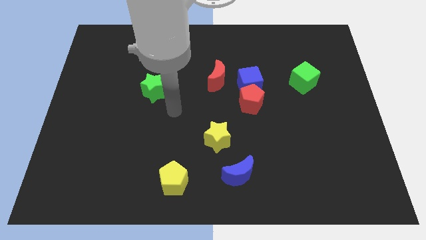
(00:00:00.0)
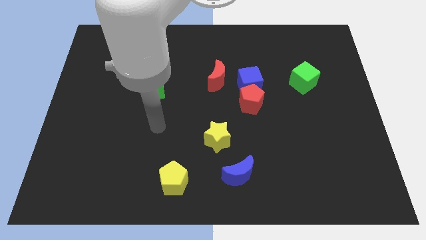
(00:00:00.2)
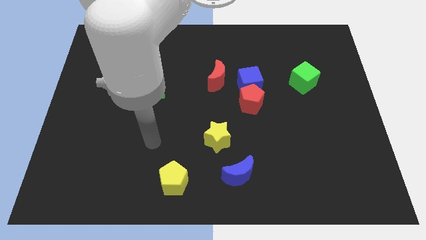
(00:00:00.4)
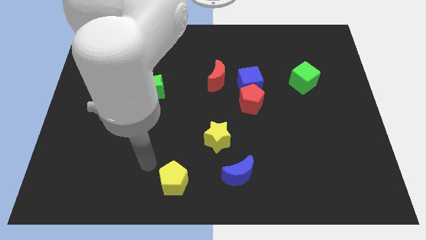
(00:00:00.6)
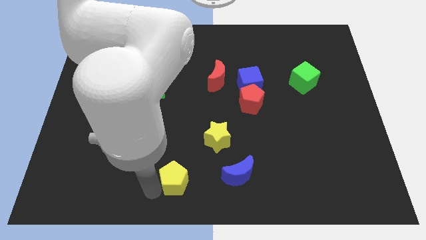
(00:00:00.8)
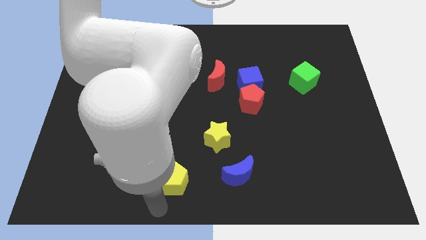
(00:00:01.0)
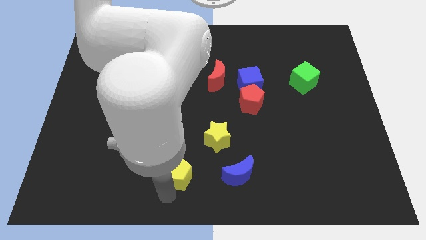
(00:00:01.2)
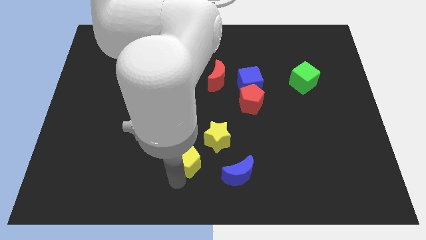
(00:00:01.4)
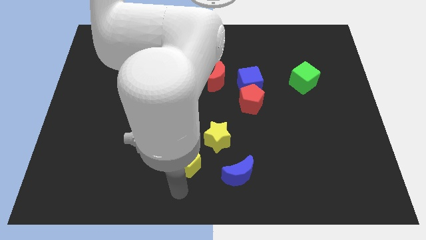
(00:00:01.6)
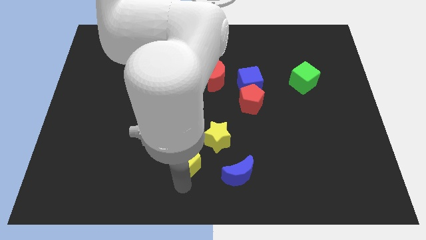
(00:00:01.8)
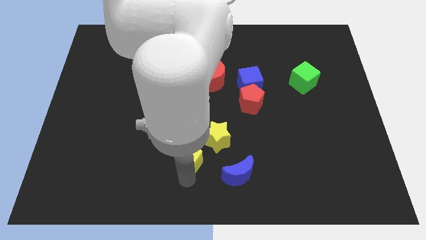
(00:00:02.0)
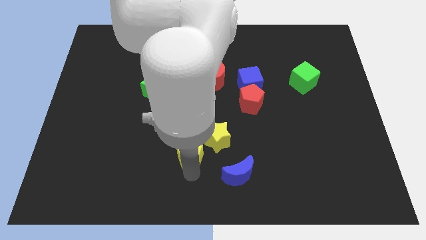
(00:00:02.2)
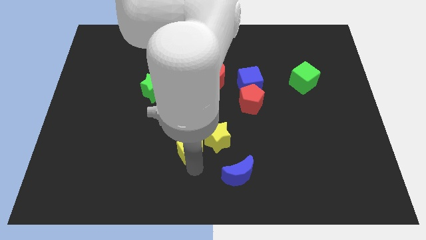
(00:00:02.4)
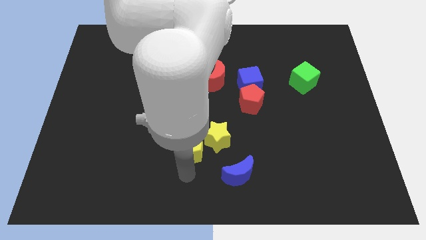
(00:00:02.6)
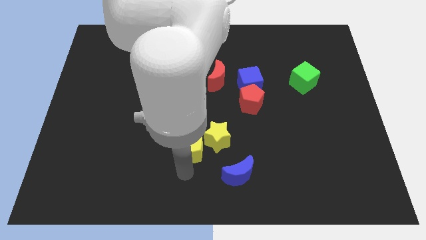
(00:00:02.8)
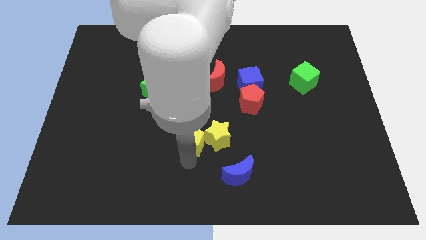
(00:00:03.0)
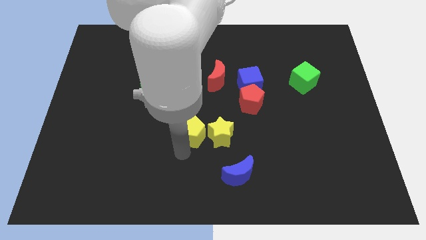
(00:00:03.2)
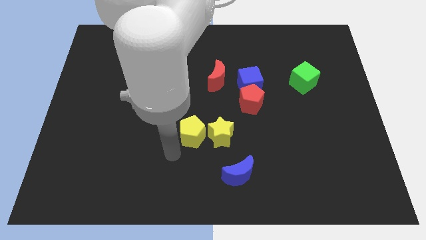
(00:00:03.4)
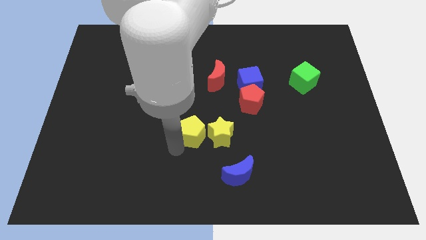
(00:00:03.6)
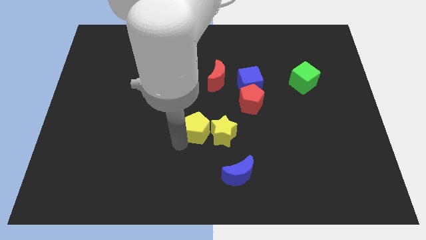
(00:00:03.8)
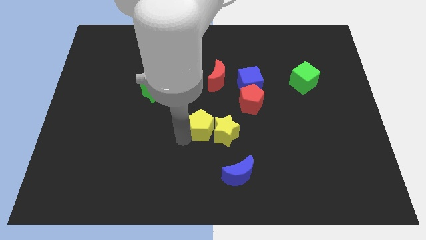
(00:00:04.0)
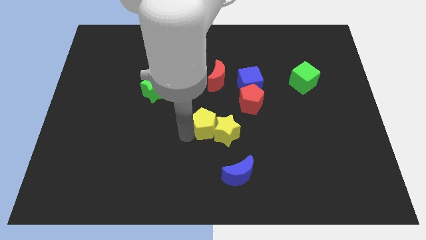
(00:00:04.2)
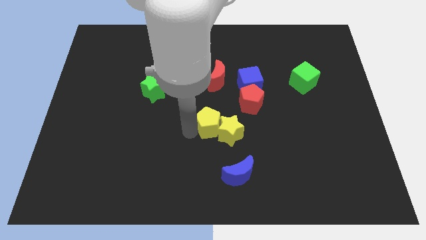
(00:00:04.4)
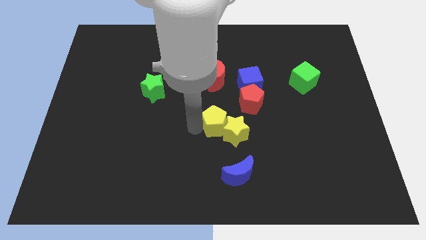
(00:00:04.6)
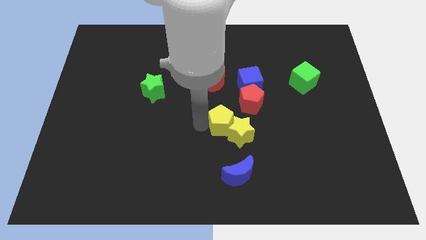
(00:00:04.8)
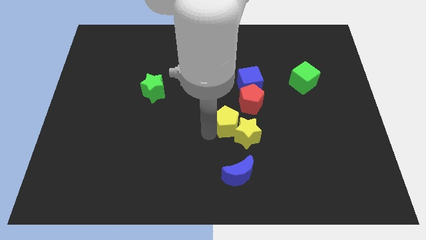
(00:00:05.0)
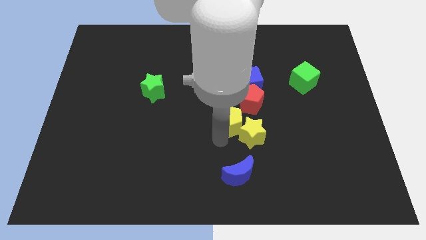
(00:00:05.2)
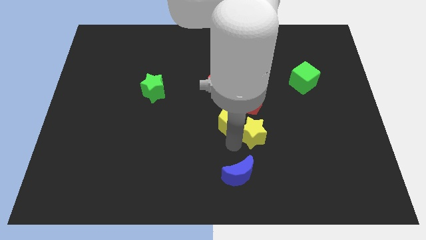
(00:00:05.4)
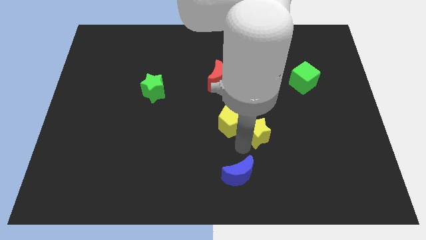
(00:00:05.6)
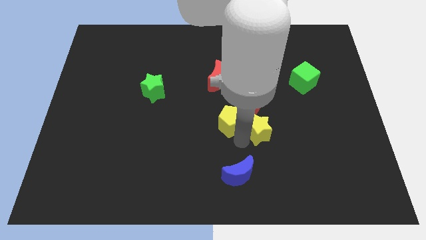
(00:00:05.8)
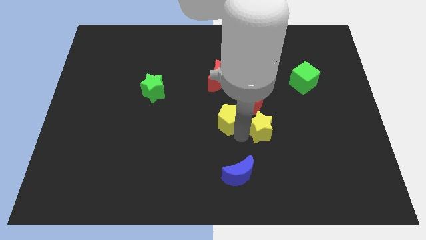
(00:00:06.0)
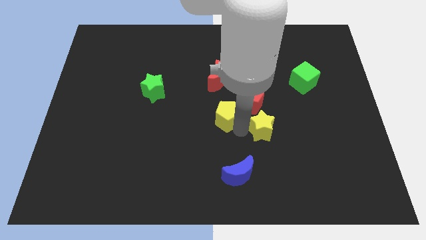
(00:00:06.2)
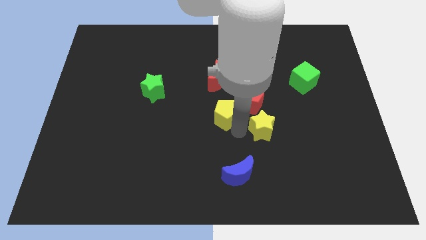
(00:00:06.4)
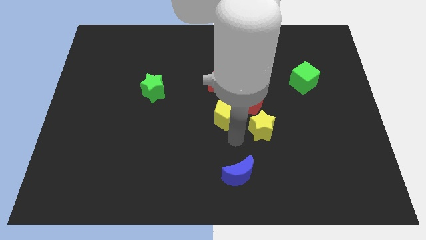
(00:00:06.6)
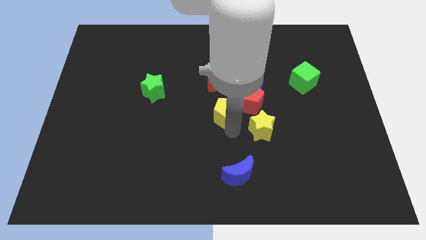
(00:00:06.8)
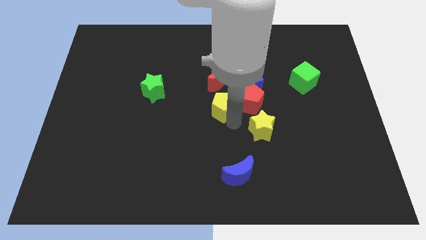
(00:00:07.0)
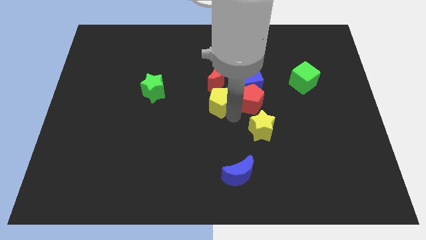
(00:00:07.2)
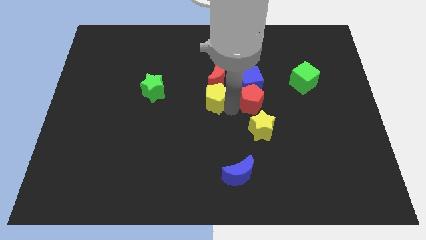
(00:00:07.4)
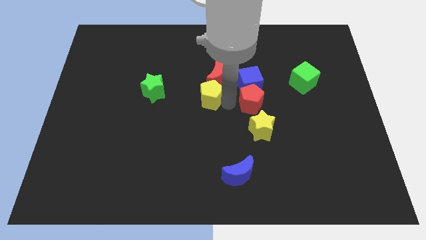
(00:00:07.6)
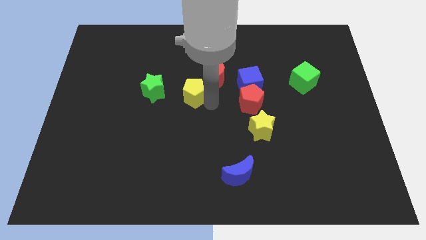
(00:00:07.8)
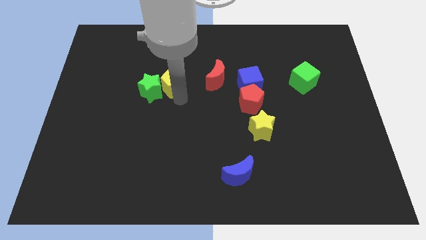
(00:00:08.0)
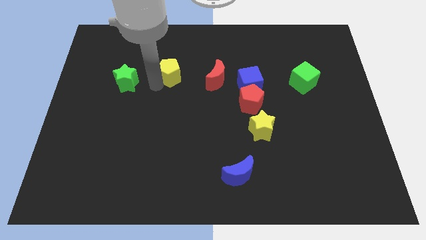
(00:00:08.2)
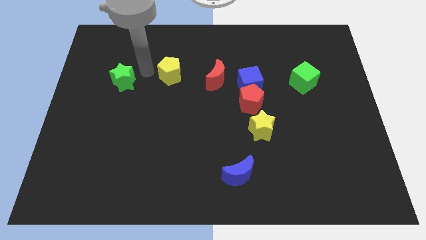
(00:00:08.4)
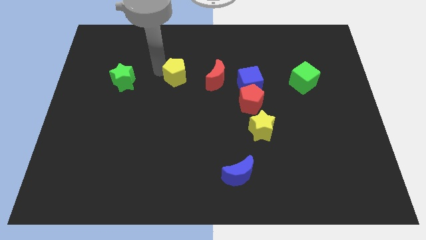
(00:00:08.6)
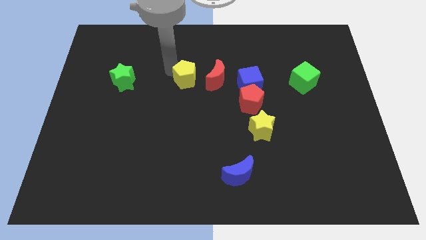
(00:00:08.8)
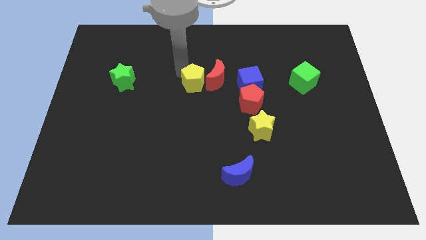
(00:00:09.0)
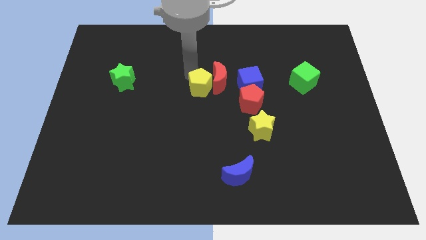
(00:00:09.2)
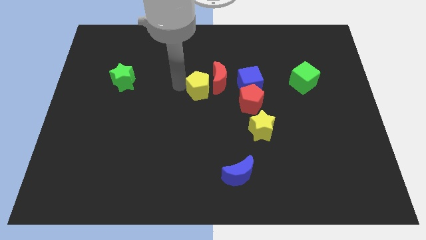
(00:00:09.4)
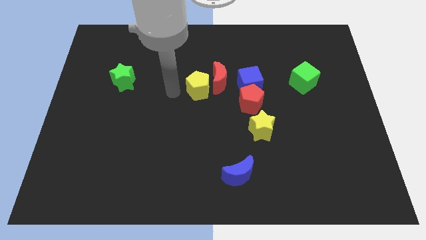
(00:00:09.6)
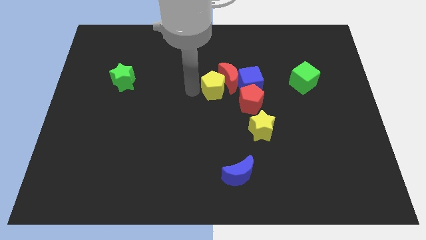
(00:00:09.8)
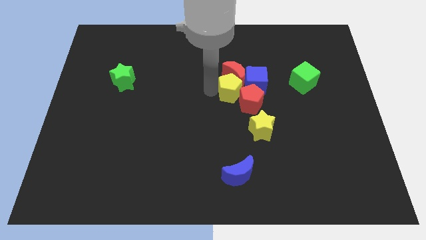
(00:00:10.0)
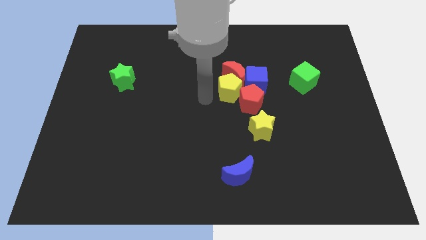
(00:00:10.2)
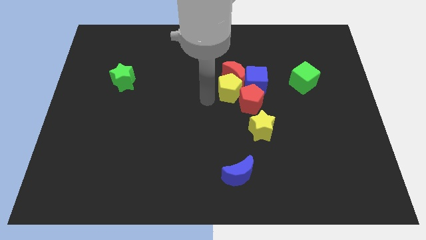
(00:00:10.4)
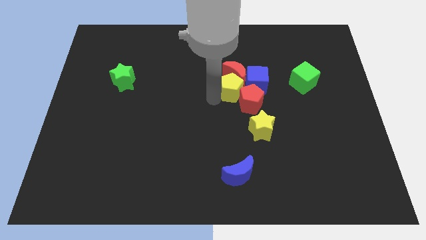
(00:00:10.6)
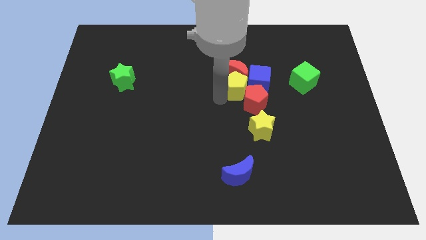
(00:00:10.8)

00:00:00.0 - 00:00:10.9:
push the yellow pentagon next to the blue cube

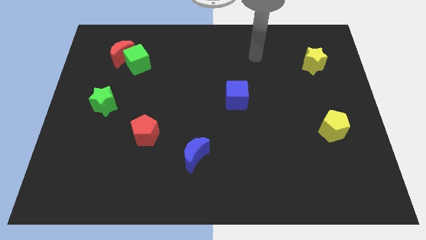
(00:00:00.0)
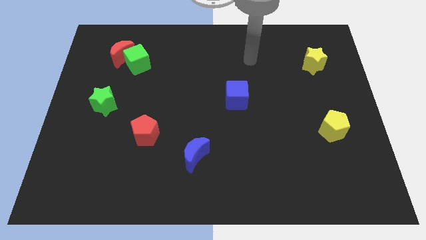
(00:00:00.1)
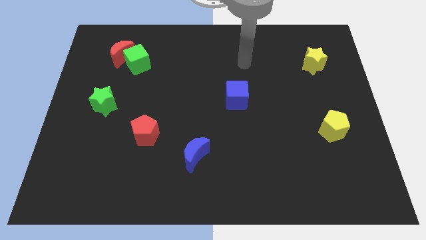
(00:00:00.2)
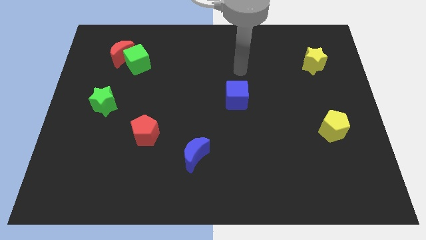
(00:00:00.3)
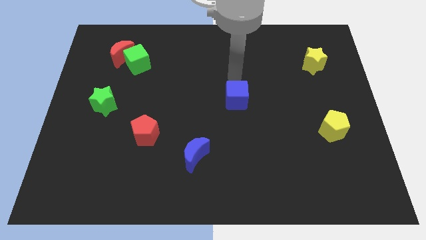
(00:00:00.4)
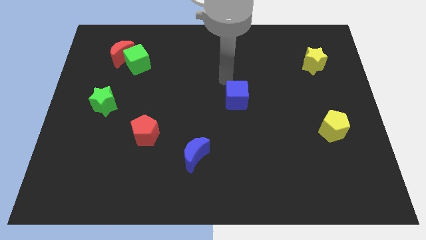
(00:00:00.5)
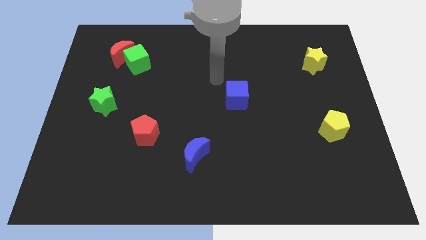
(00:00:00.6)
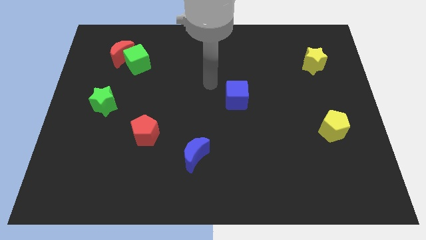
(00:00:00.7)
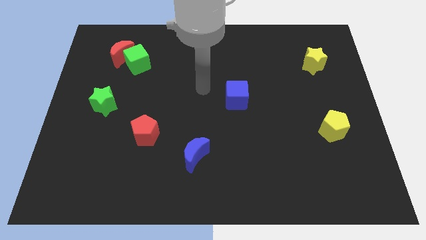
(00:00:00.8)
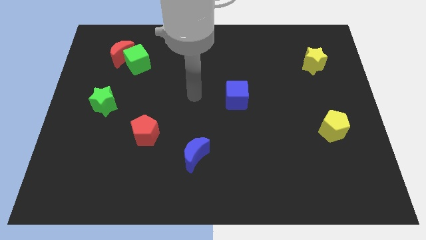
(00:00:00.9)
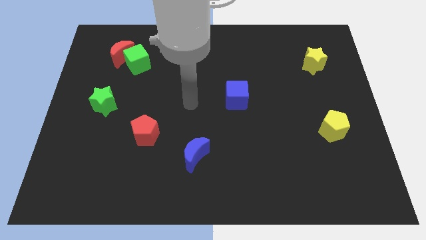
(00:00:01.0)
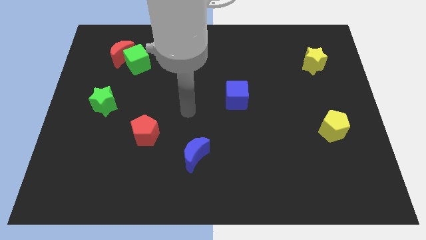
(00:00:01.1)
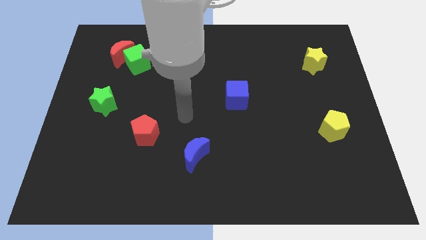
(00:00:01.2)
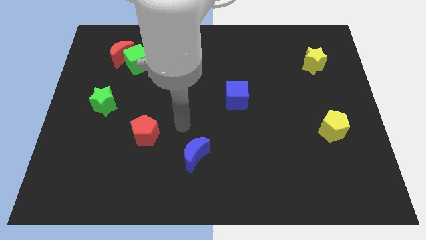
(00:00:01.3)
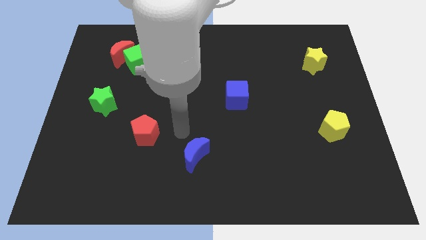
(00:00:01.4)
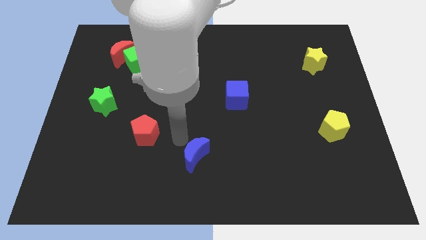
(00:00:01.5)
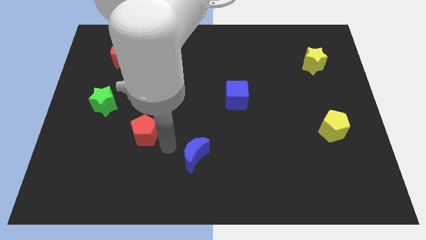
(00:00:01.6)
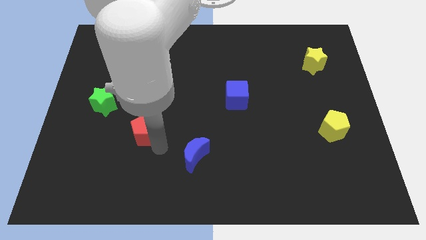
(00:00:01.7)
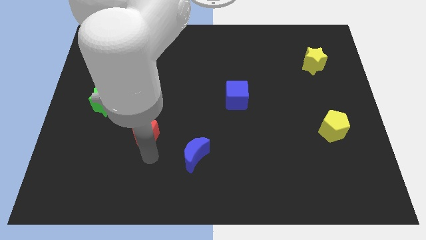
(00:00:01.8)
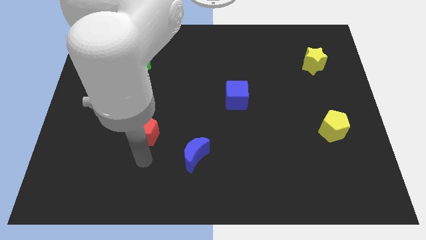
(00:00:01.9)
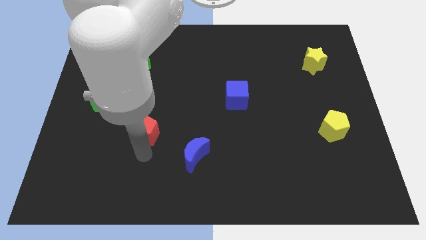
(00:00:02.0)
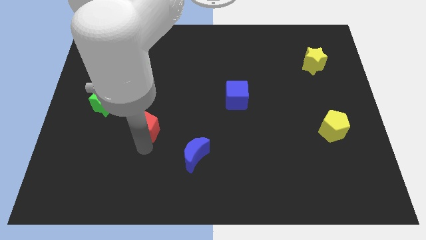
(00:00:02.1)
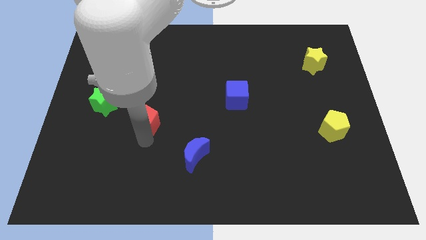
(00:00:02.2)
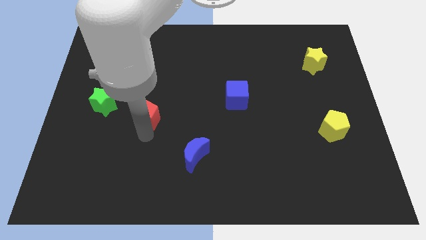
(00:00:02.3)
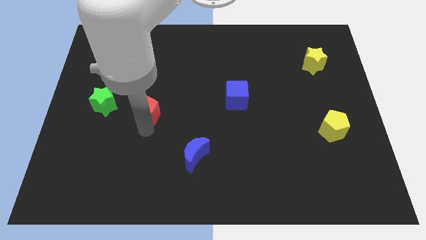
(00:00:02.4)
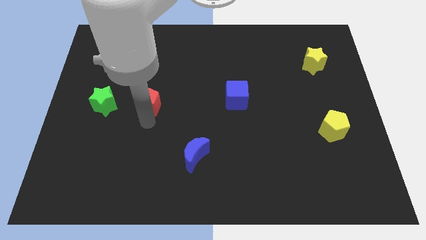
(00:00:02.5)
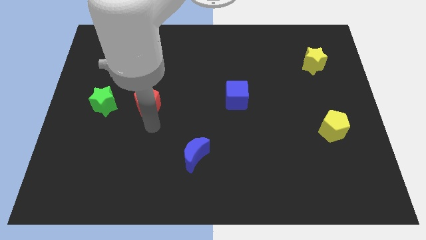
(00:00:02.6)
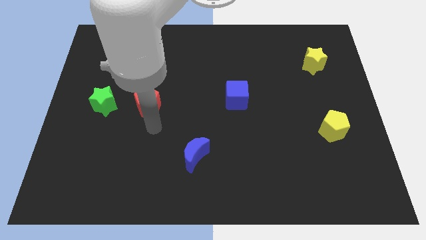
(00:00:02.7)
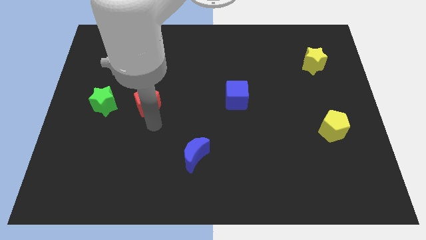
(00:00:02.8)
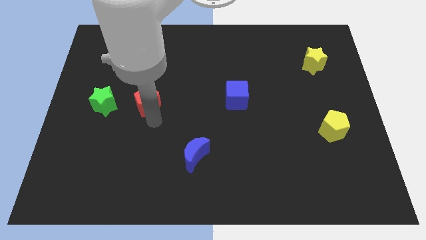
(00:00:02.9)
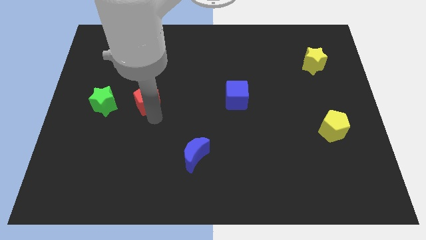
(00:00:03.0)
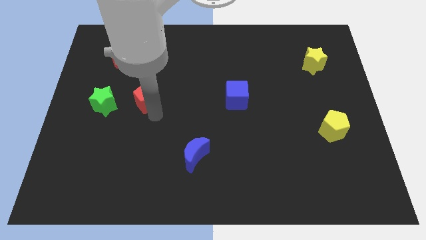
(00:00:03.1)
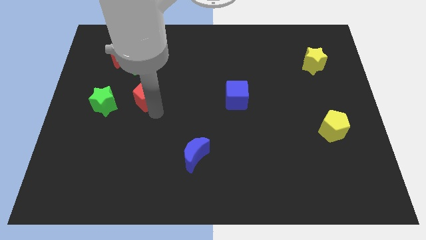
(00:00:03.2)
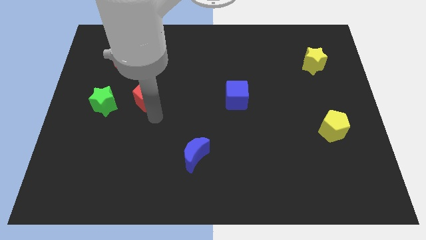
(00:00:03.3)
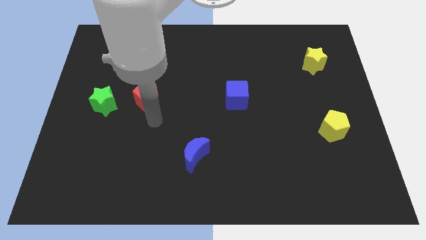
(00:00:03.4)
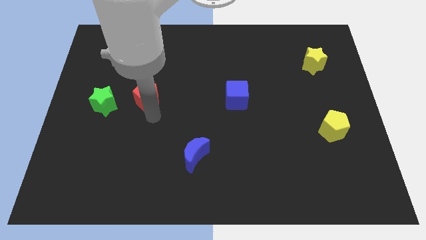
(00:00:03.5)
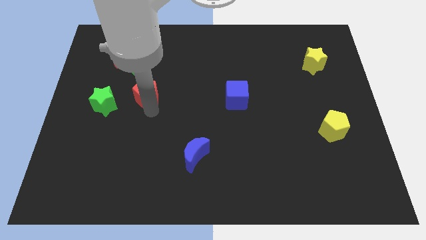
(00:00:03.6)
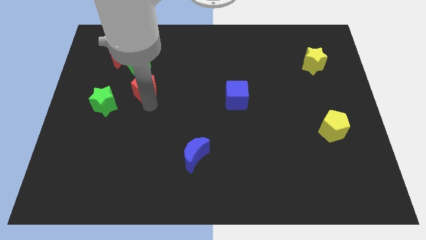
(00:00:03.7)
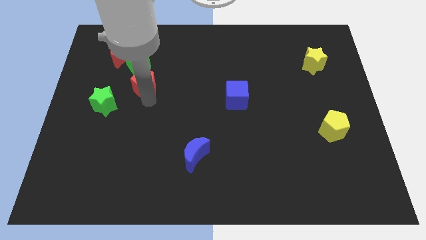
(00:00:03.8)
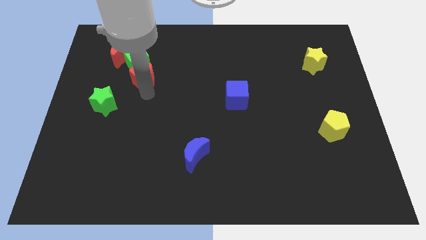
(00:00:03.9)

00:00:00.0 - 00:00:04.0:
slide the red pentagon to the green cube
